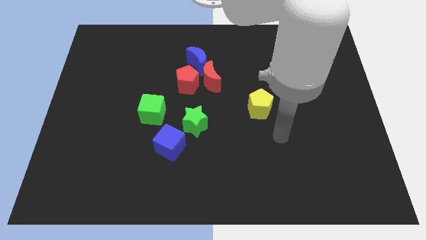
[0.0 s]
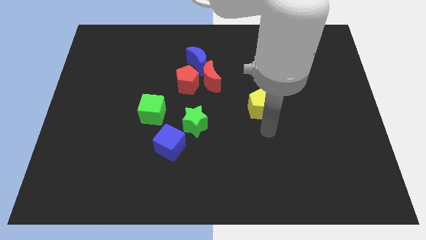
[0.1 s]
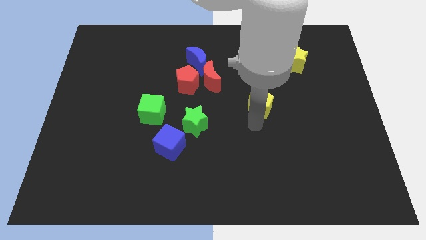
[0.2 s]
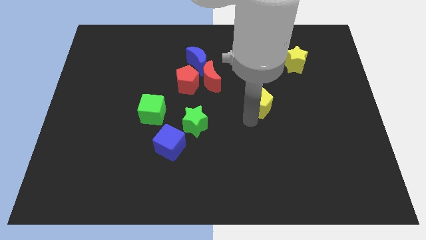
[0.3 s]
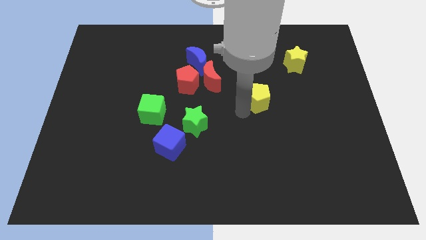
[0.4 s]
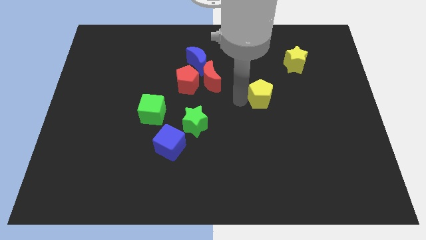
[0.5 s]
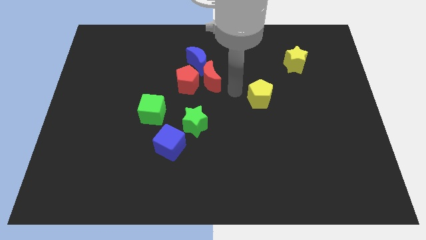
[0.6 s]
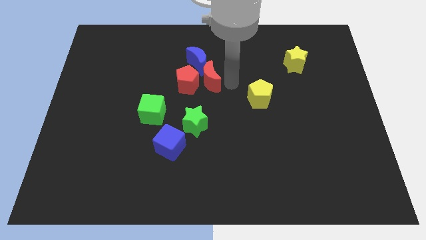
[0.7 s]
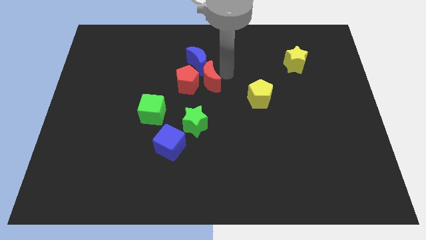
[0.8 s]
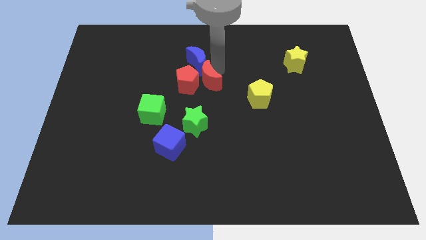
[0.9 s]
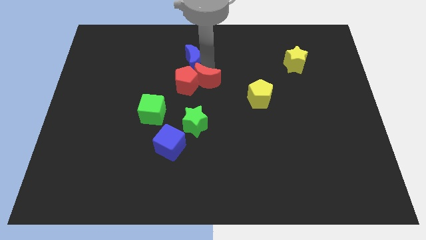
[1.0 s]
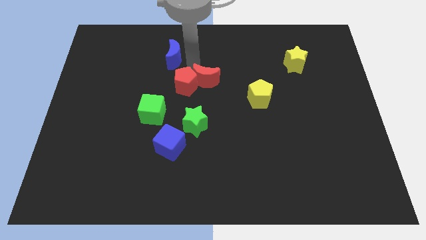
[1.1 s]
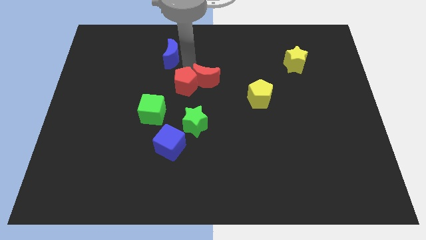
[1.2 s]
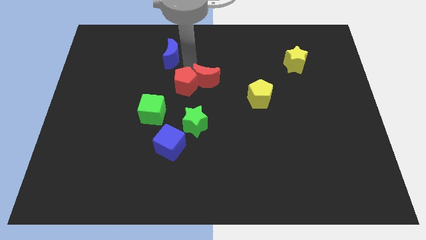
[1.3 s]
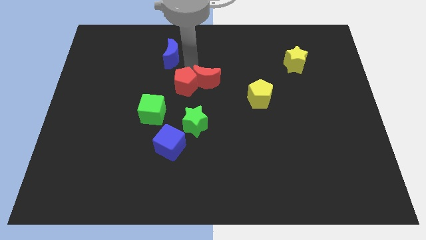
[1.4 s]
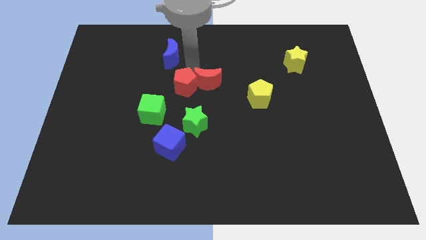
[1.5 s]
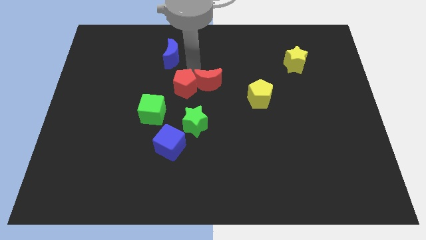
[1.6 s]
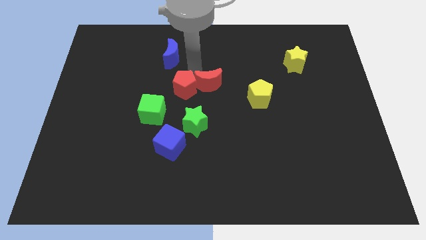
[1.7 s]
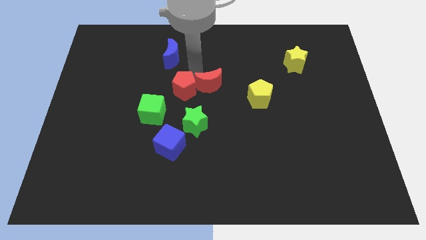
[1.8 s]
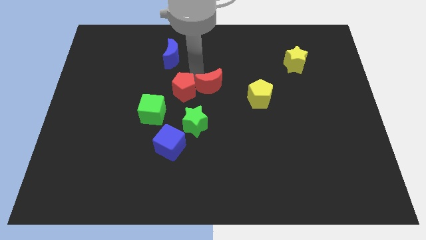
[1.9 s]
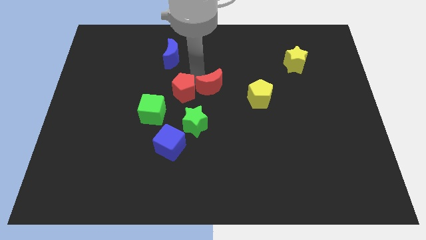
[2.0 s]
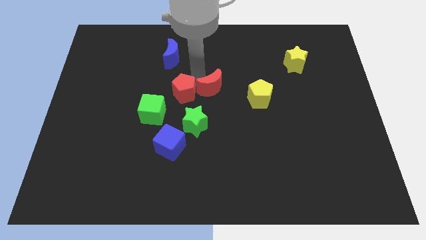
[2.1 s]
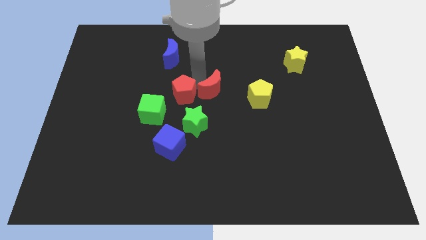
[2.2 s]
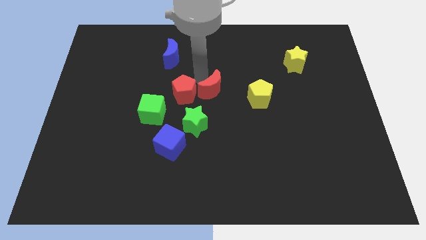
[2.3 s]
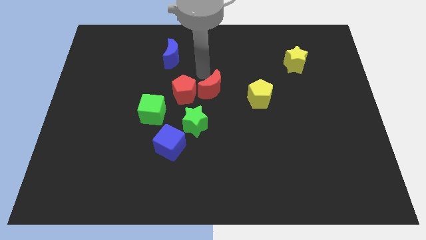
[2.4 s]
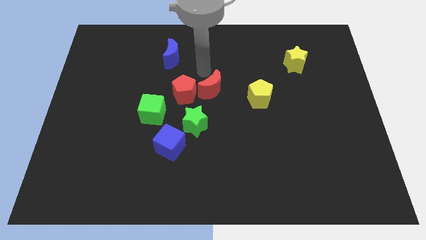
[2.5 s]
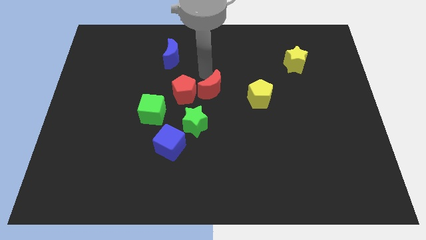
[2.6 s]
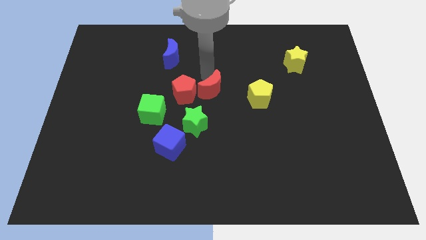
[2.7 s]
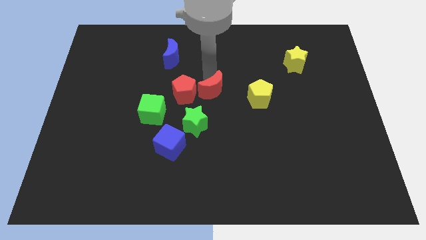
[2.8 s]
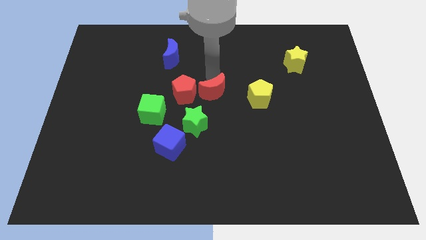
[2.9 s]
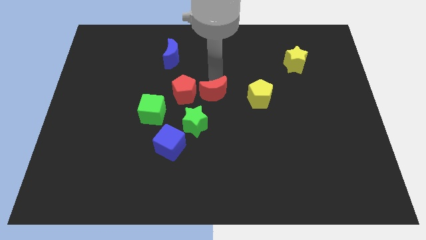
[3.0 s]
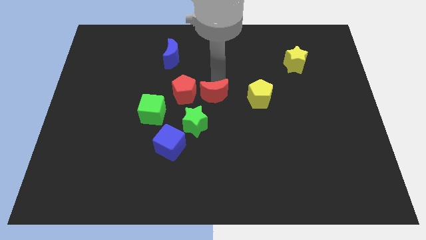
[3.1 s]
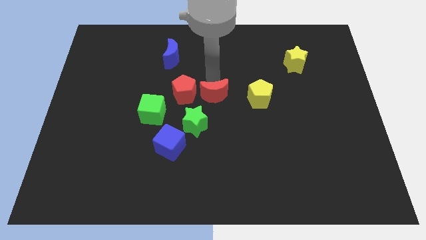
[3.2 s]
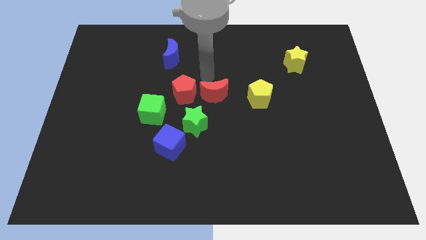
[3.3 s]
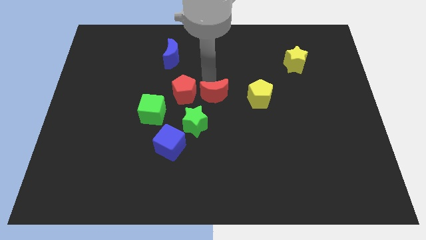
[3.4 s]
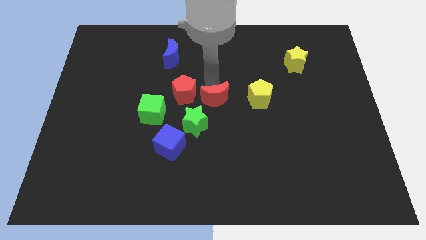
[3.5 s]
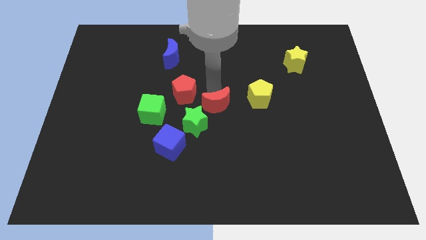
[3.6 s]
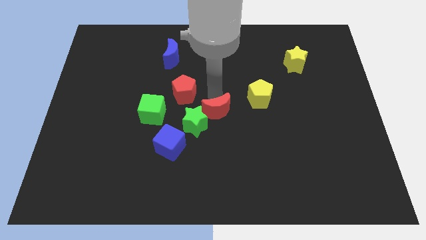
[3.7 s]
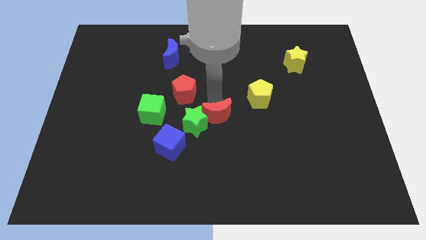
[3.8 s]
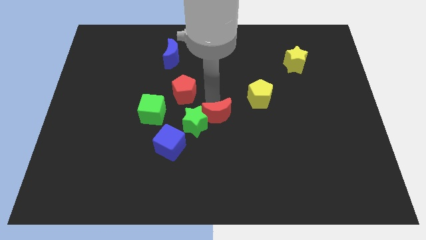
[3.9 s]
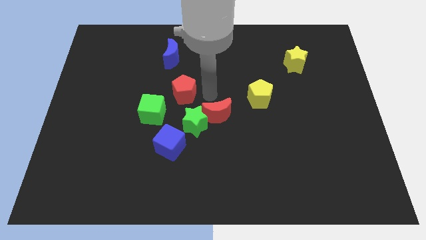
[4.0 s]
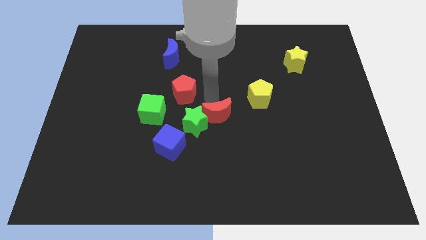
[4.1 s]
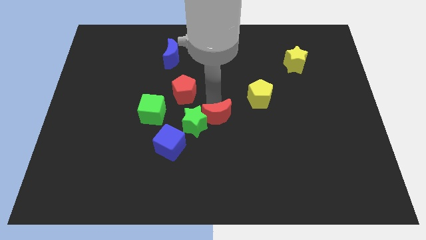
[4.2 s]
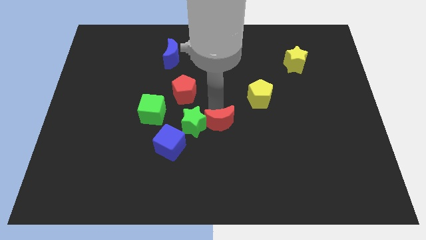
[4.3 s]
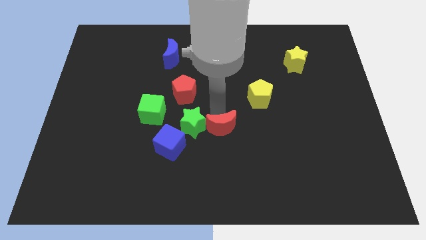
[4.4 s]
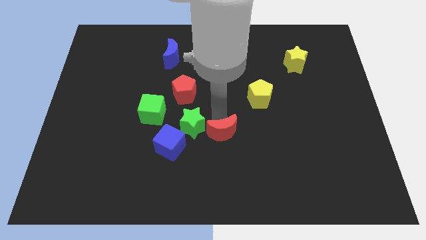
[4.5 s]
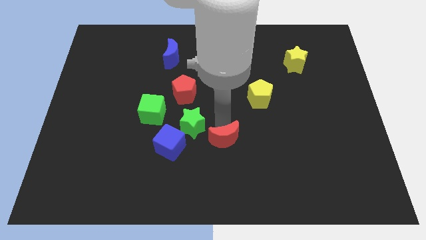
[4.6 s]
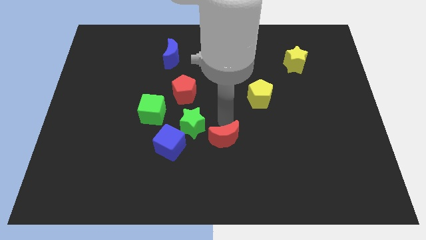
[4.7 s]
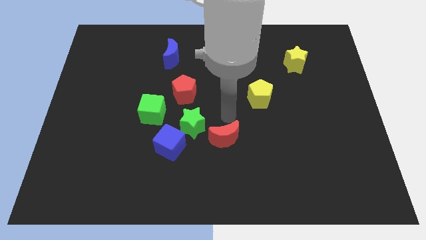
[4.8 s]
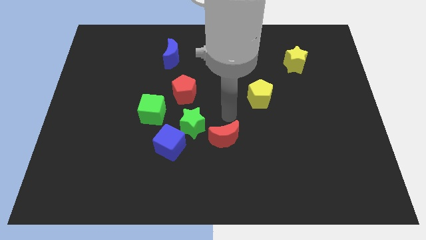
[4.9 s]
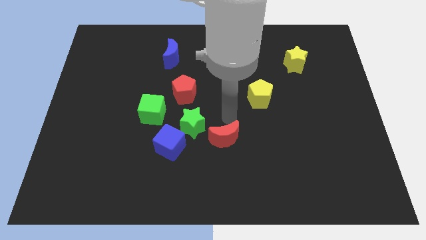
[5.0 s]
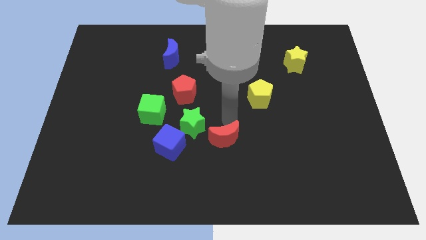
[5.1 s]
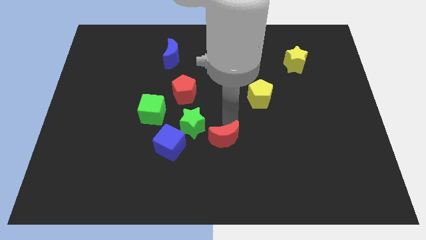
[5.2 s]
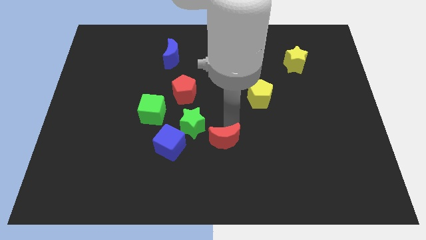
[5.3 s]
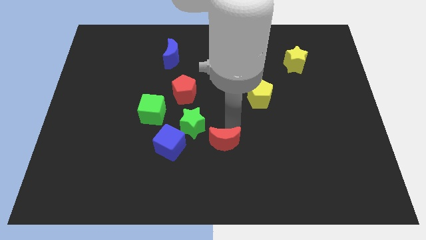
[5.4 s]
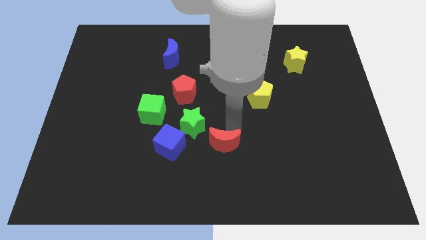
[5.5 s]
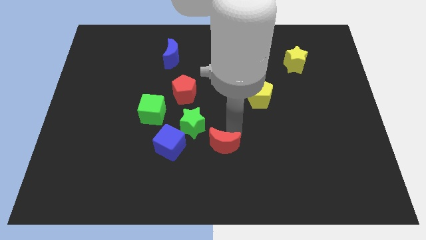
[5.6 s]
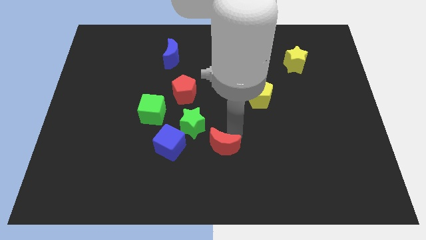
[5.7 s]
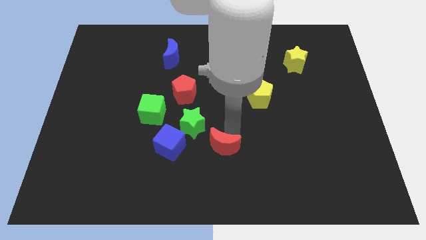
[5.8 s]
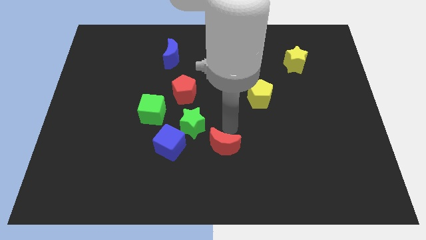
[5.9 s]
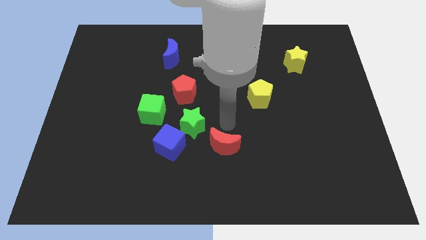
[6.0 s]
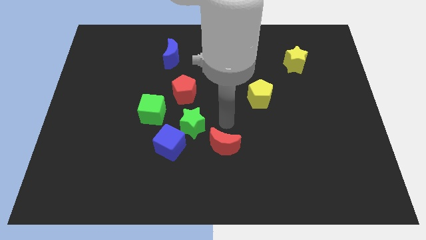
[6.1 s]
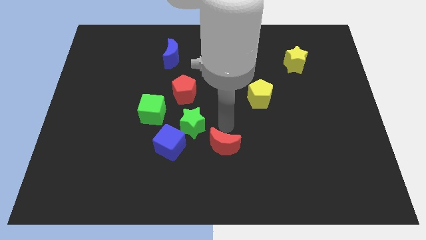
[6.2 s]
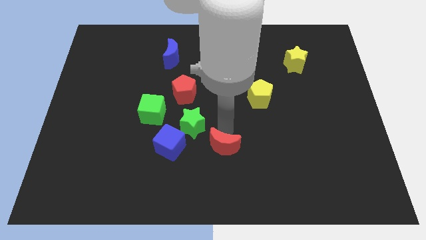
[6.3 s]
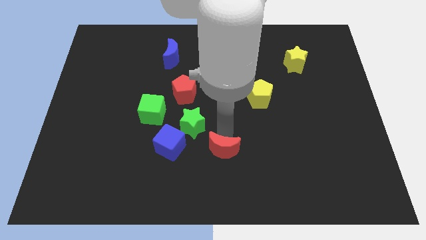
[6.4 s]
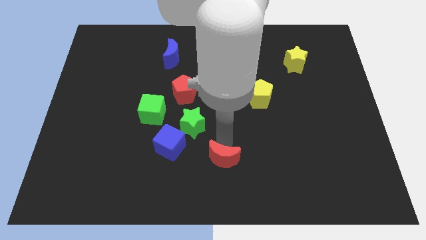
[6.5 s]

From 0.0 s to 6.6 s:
put the red moon to the bottom side
